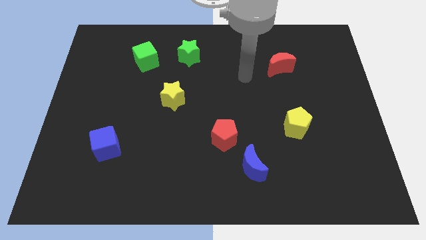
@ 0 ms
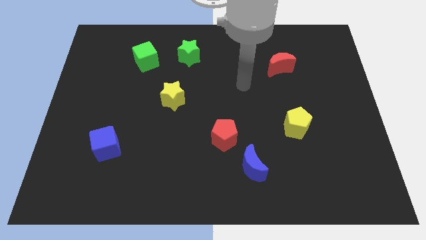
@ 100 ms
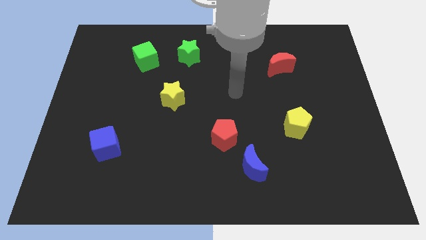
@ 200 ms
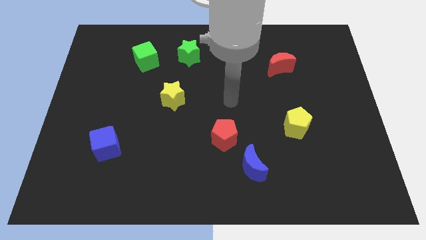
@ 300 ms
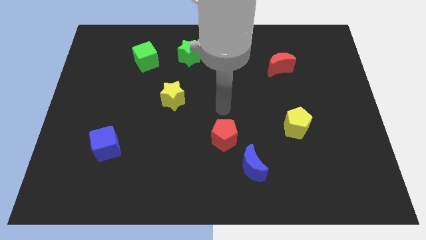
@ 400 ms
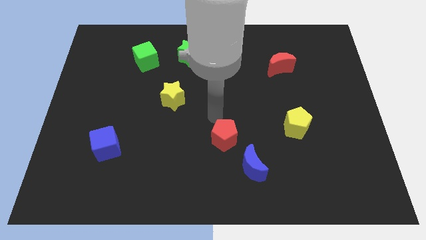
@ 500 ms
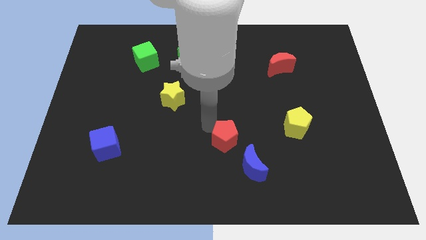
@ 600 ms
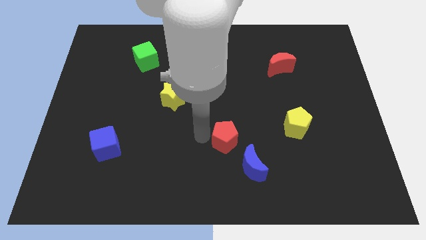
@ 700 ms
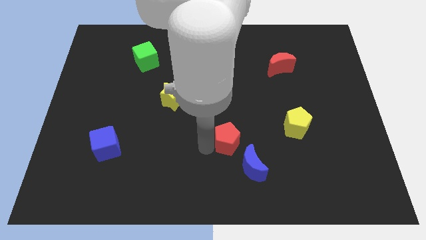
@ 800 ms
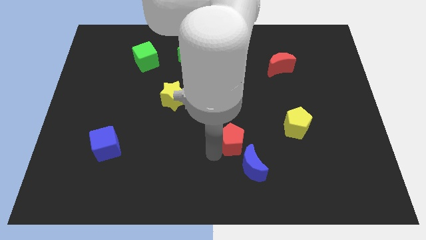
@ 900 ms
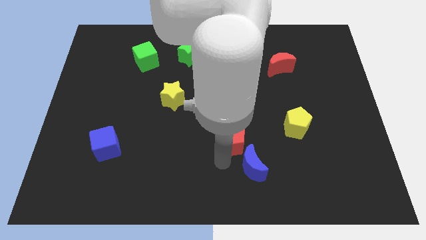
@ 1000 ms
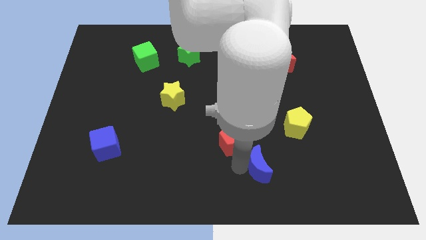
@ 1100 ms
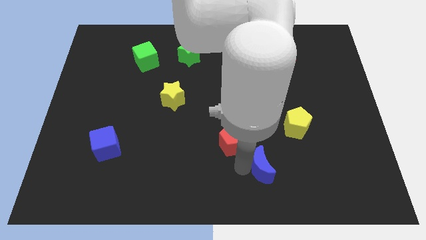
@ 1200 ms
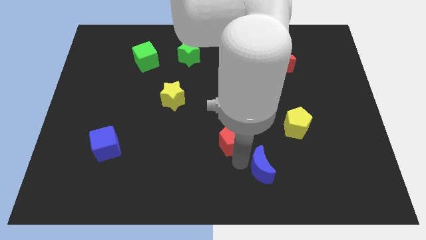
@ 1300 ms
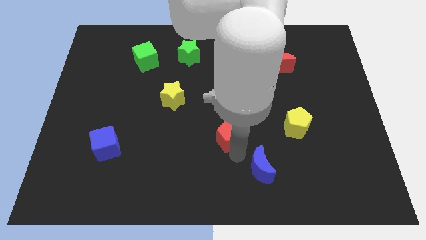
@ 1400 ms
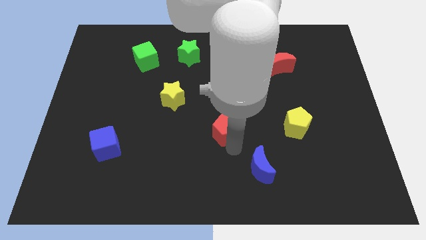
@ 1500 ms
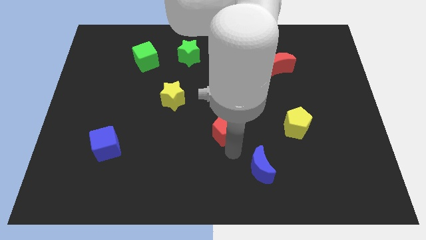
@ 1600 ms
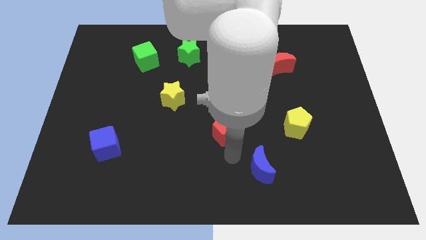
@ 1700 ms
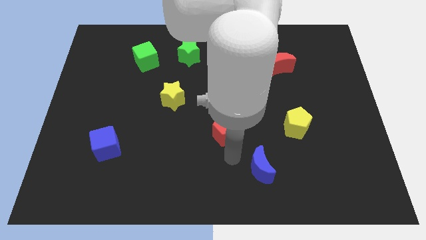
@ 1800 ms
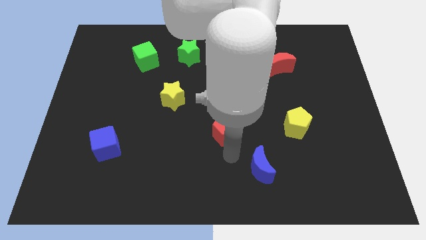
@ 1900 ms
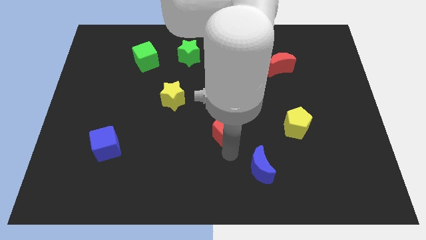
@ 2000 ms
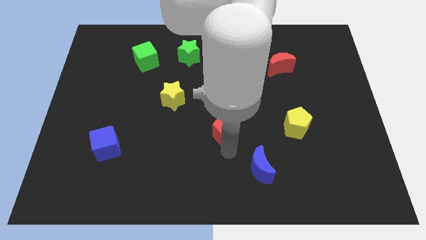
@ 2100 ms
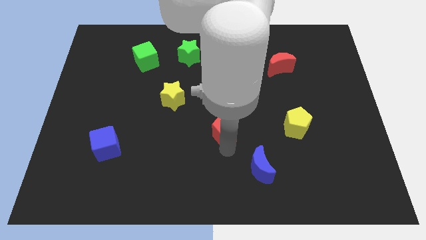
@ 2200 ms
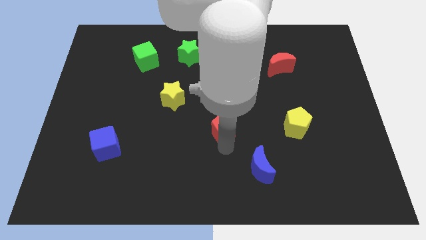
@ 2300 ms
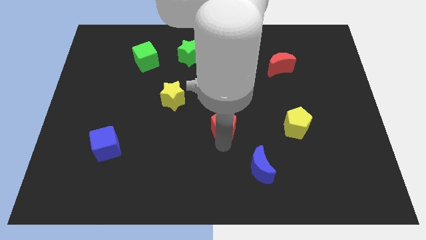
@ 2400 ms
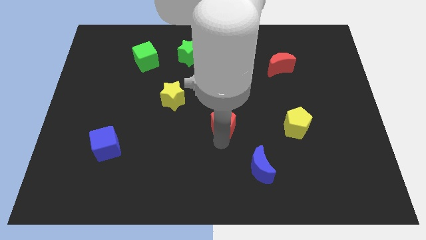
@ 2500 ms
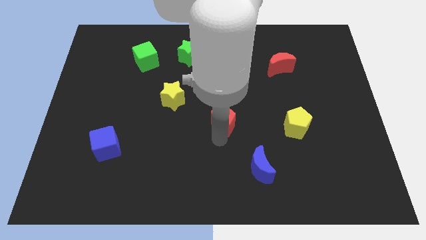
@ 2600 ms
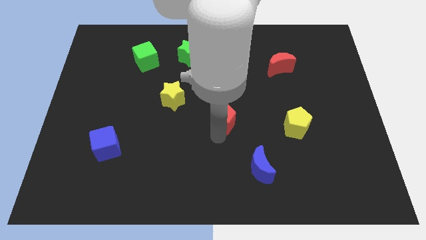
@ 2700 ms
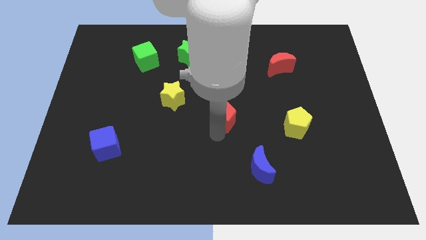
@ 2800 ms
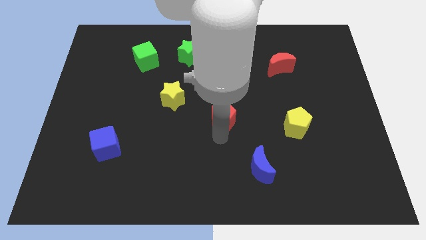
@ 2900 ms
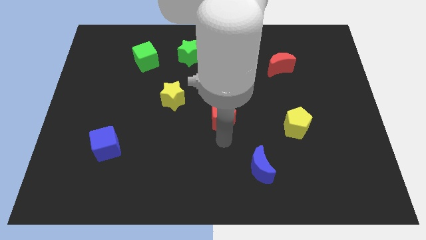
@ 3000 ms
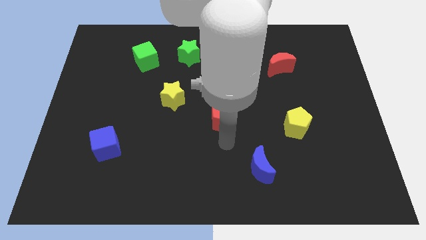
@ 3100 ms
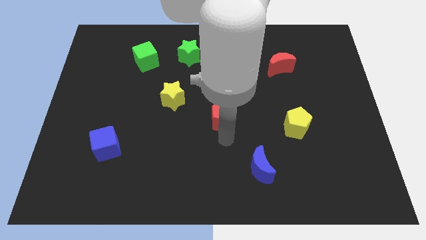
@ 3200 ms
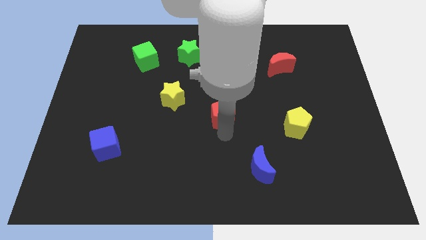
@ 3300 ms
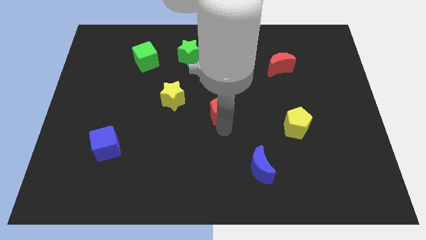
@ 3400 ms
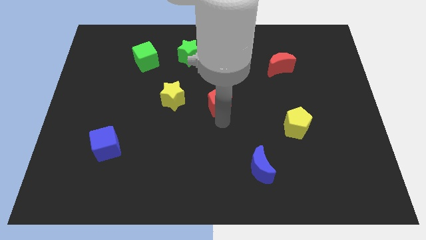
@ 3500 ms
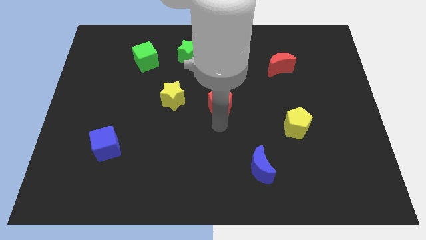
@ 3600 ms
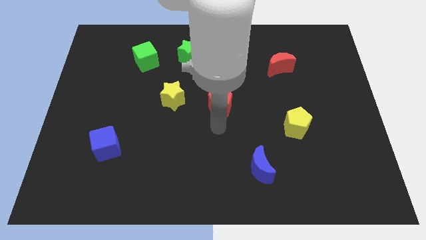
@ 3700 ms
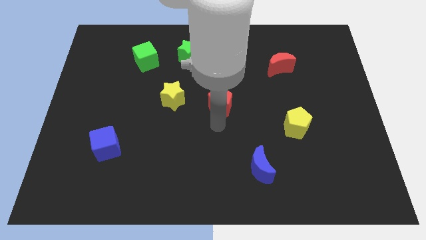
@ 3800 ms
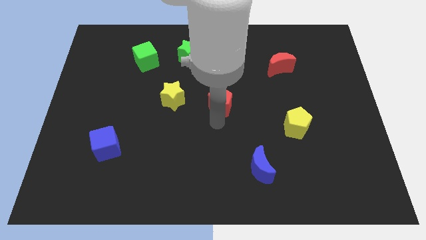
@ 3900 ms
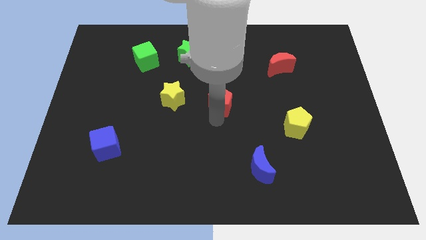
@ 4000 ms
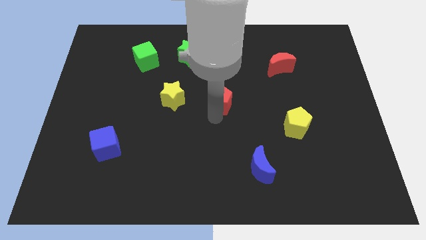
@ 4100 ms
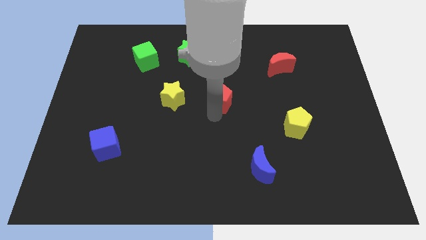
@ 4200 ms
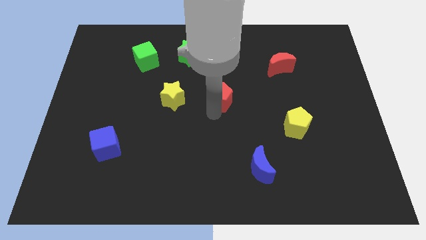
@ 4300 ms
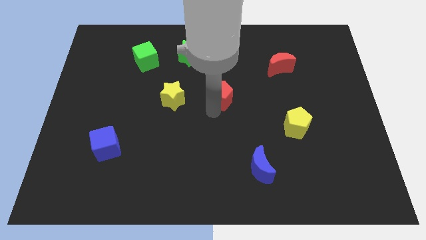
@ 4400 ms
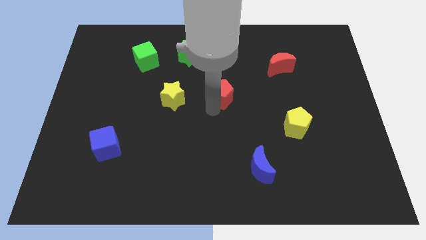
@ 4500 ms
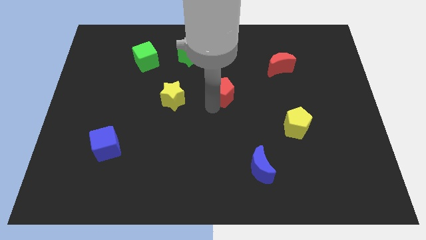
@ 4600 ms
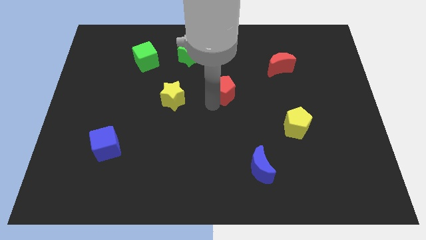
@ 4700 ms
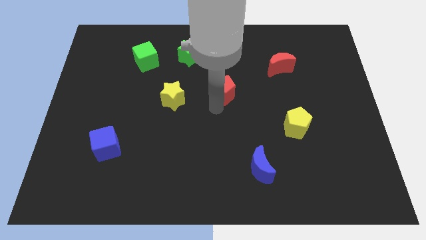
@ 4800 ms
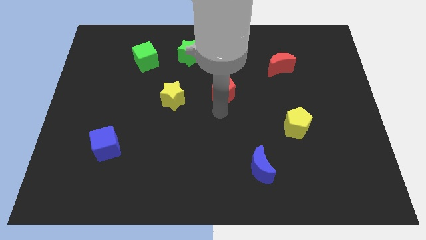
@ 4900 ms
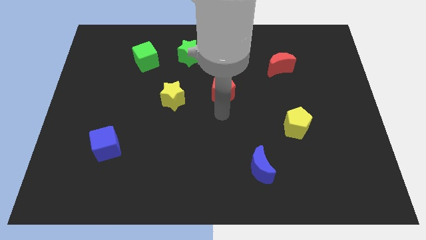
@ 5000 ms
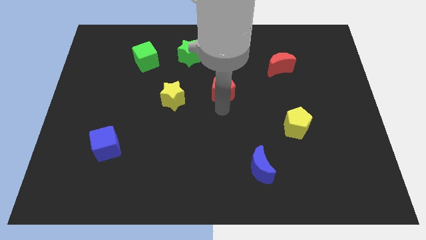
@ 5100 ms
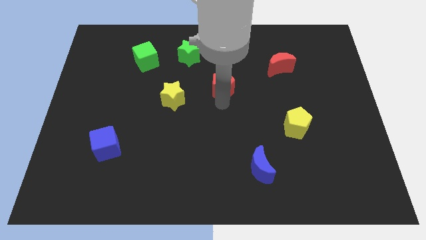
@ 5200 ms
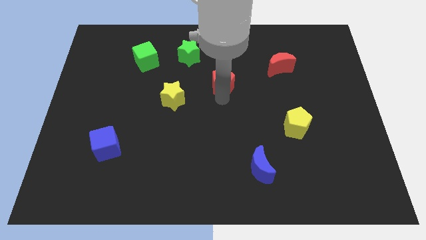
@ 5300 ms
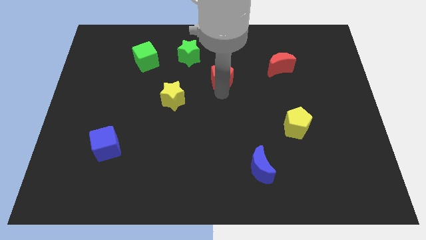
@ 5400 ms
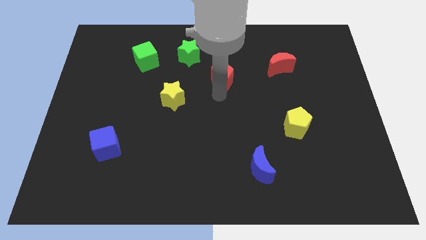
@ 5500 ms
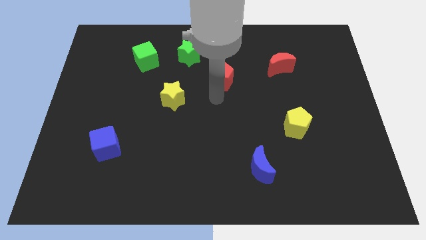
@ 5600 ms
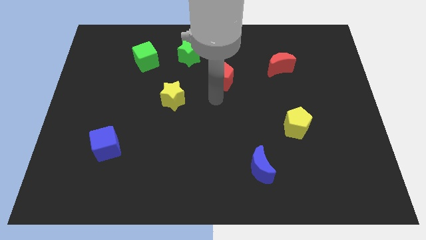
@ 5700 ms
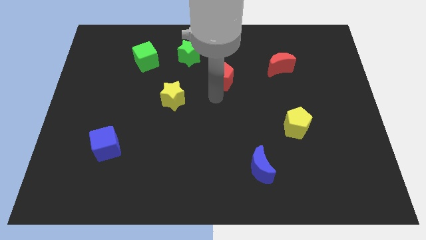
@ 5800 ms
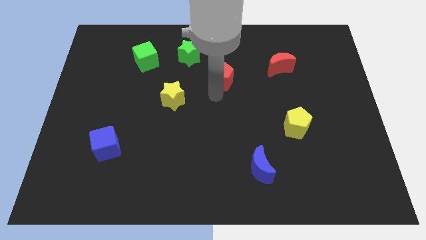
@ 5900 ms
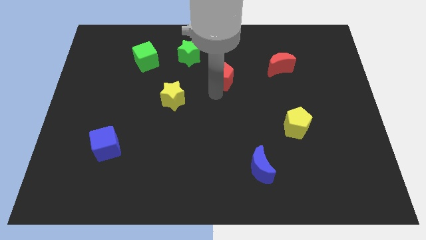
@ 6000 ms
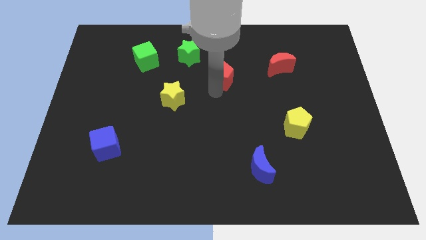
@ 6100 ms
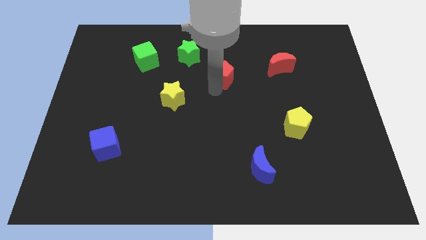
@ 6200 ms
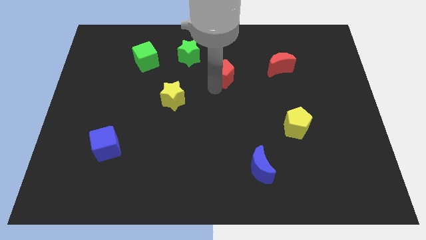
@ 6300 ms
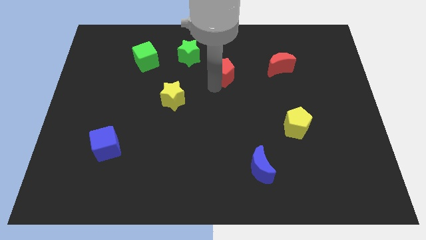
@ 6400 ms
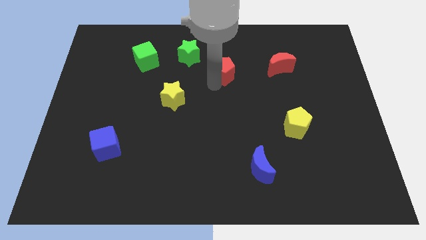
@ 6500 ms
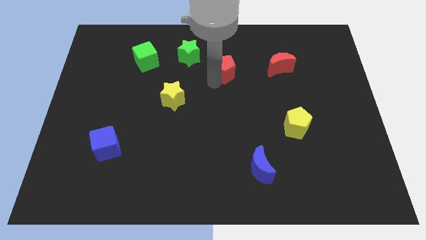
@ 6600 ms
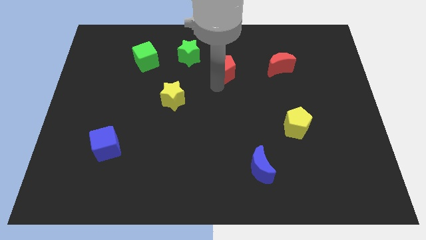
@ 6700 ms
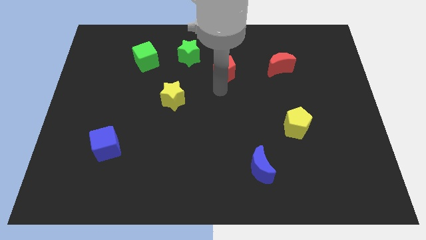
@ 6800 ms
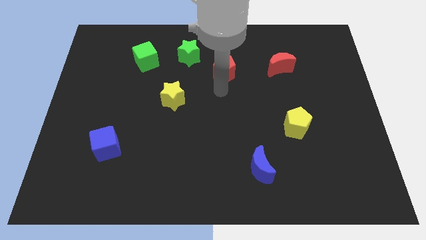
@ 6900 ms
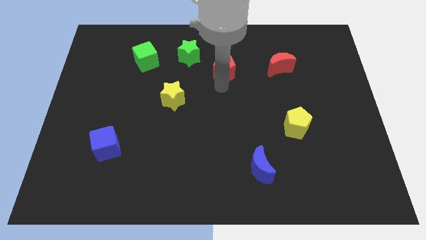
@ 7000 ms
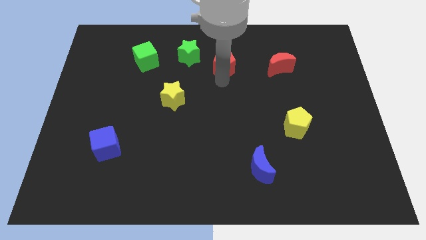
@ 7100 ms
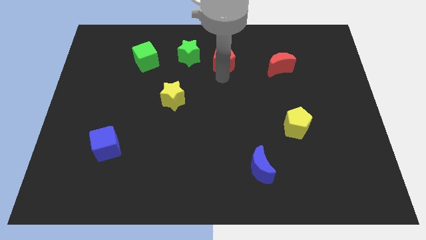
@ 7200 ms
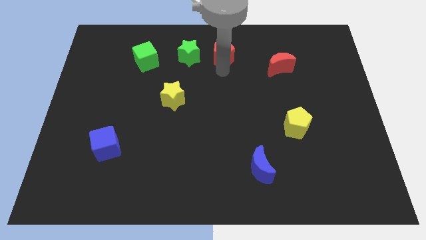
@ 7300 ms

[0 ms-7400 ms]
push the red pentagon to the top
